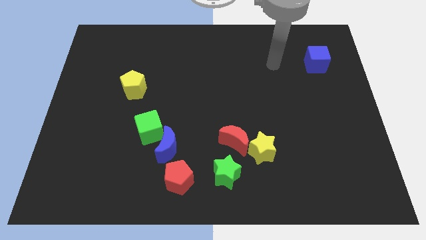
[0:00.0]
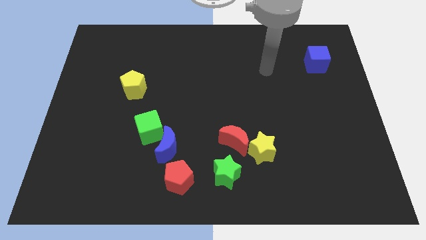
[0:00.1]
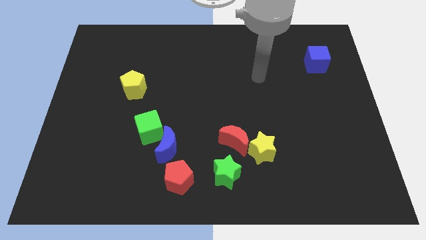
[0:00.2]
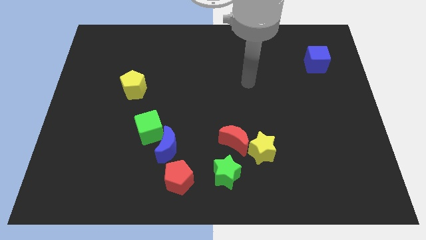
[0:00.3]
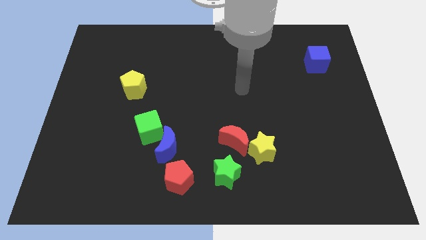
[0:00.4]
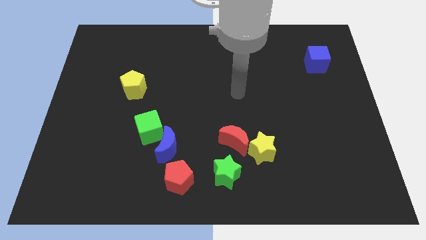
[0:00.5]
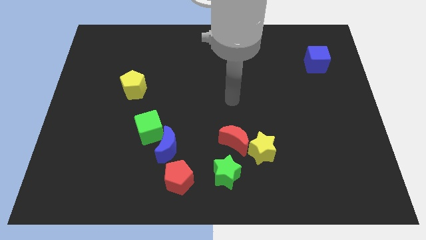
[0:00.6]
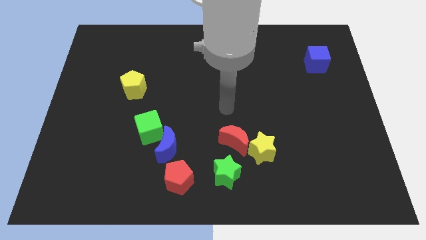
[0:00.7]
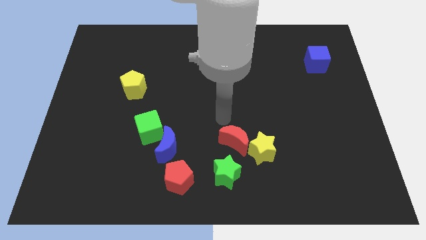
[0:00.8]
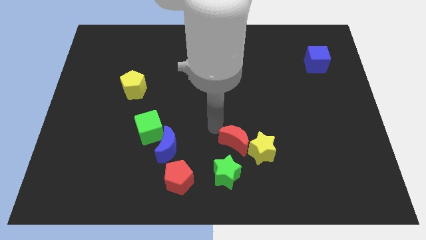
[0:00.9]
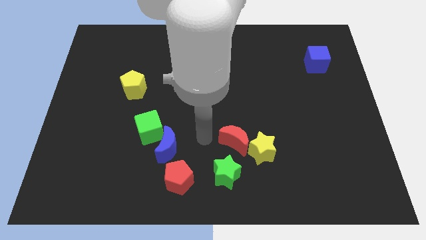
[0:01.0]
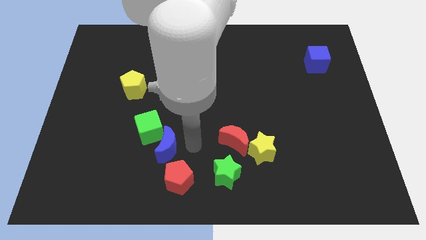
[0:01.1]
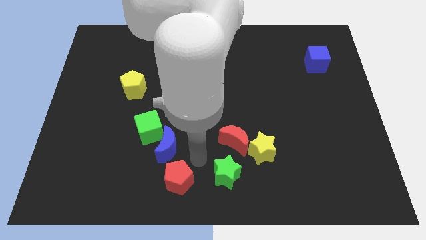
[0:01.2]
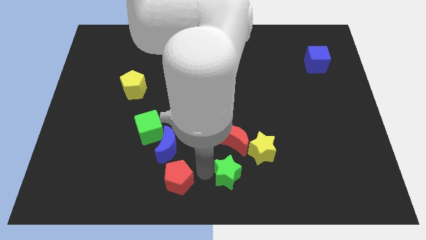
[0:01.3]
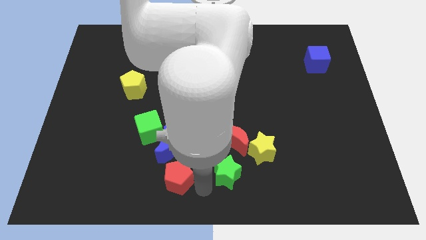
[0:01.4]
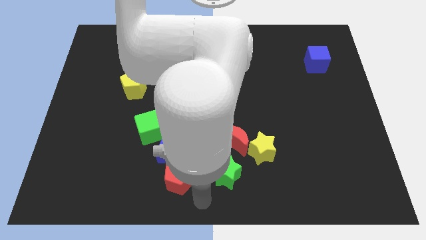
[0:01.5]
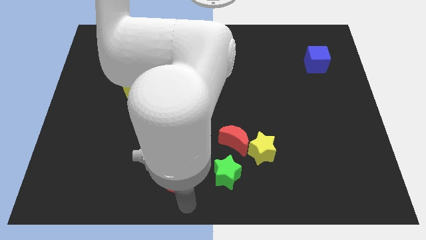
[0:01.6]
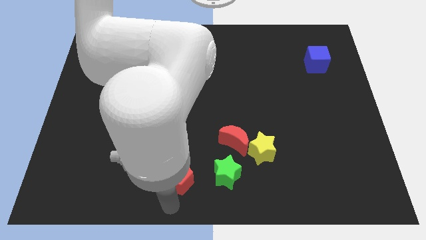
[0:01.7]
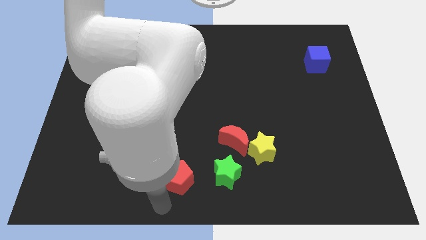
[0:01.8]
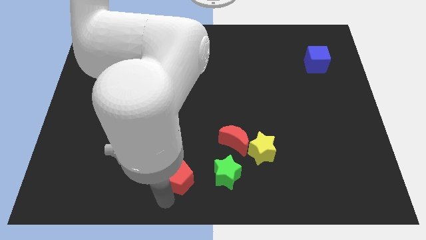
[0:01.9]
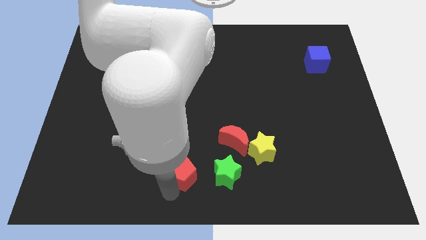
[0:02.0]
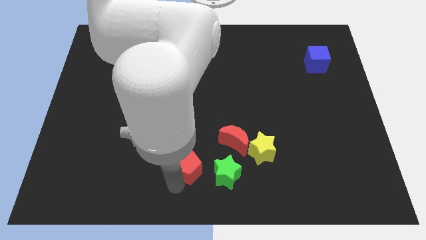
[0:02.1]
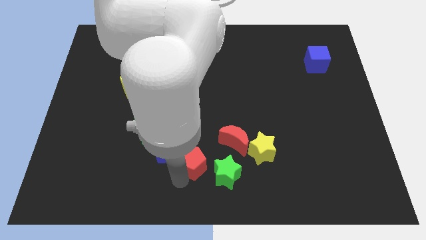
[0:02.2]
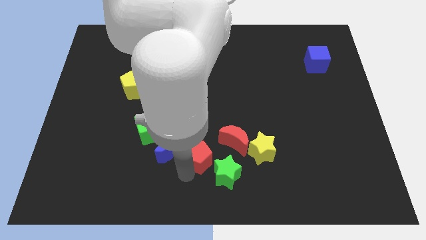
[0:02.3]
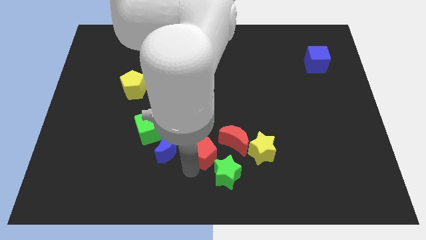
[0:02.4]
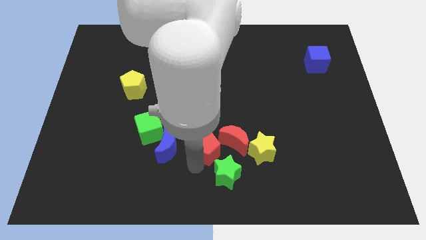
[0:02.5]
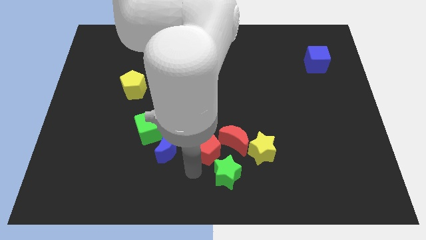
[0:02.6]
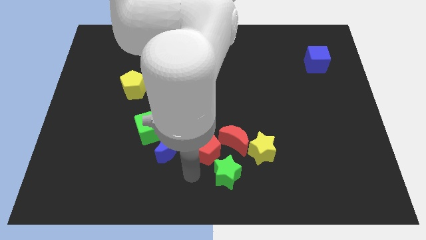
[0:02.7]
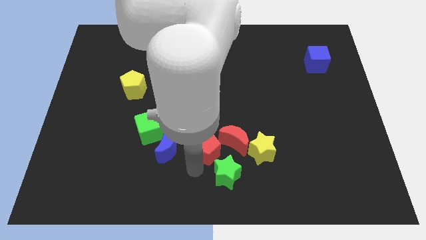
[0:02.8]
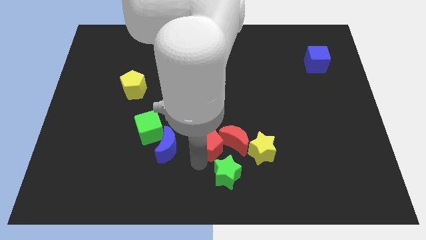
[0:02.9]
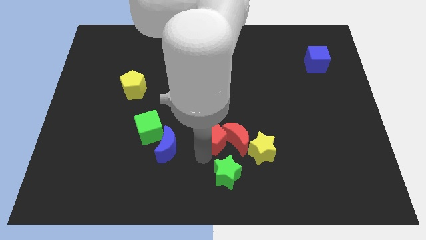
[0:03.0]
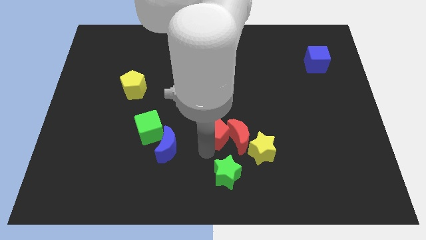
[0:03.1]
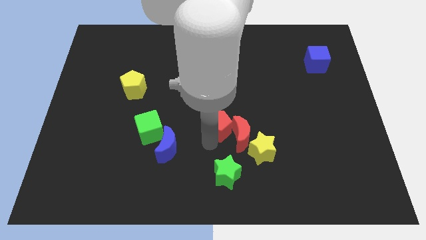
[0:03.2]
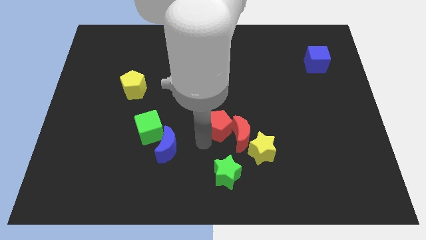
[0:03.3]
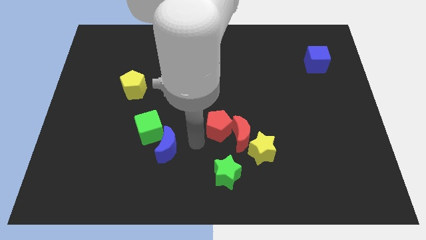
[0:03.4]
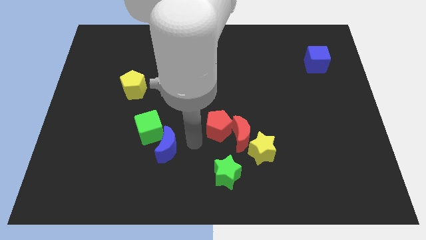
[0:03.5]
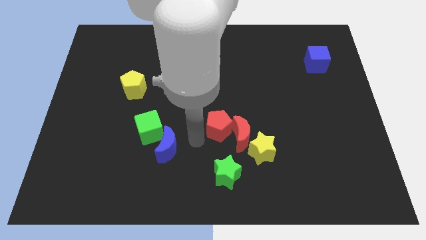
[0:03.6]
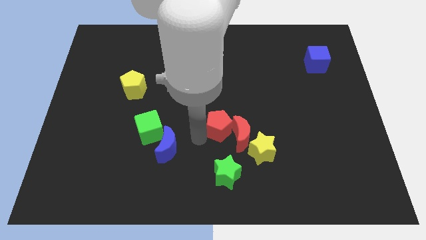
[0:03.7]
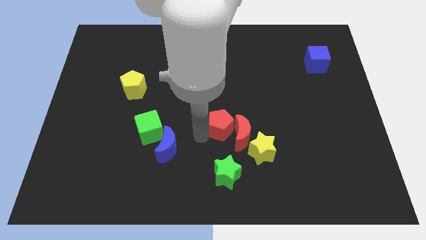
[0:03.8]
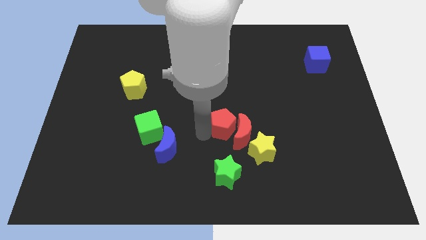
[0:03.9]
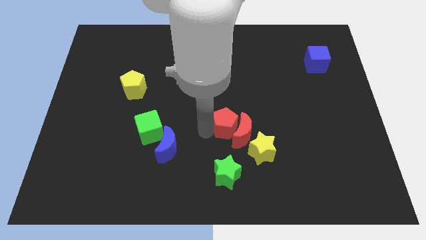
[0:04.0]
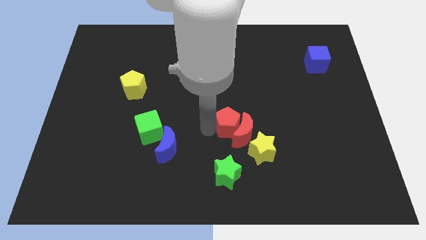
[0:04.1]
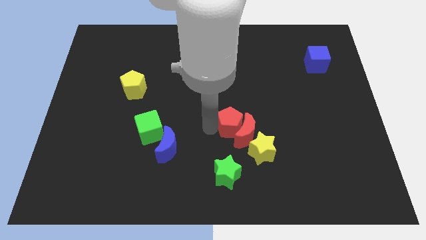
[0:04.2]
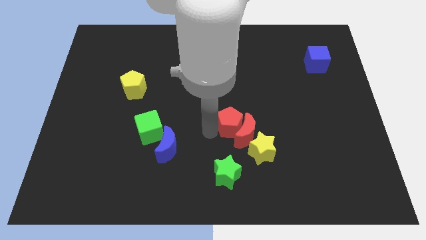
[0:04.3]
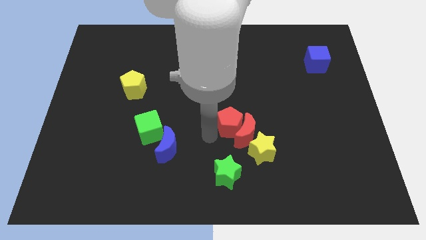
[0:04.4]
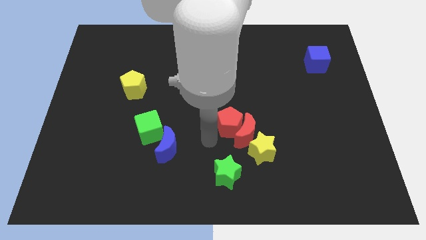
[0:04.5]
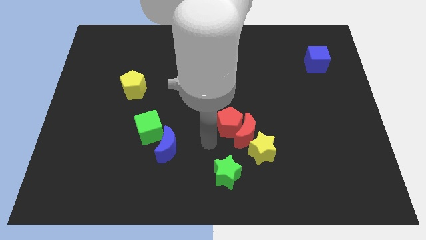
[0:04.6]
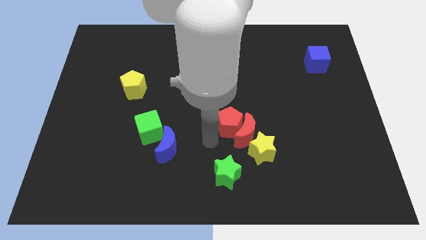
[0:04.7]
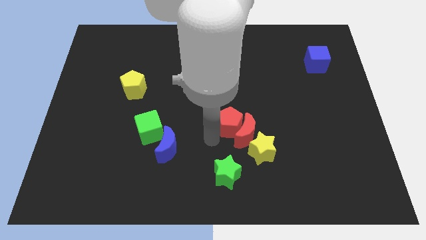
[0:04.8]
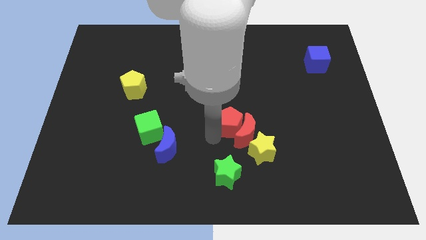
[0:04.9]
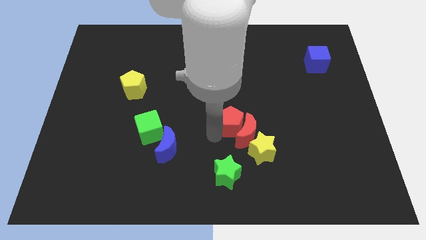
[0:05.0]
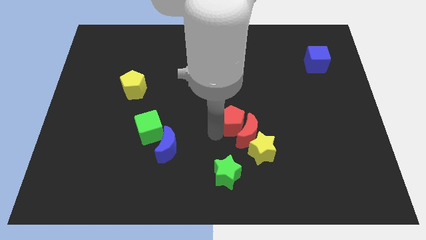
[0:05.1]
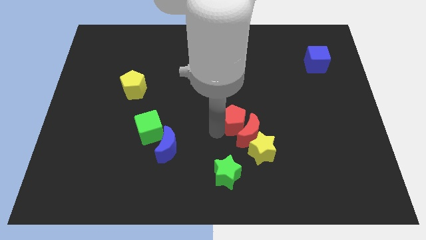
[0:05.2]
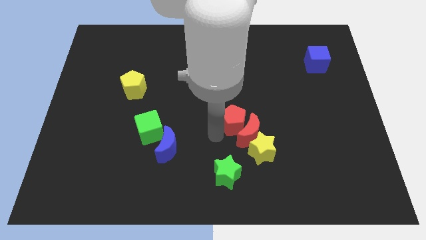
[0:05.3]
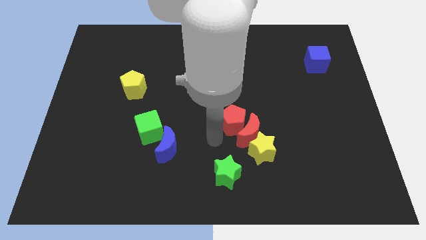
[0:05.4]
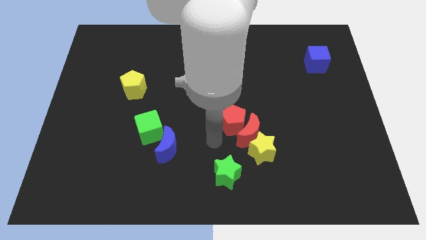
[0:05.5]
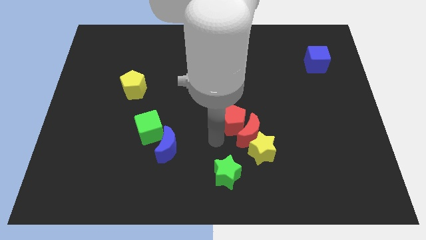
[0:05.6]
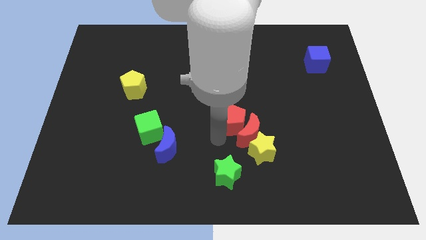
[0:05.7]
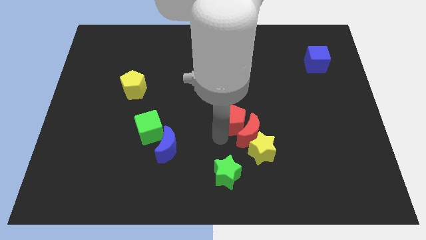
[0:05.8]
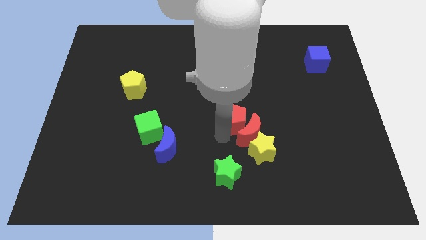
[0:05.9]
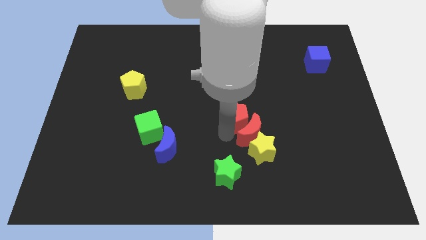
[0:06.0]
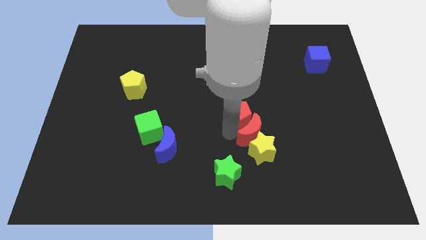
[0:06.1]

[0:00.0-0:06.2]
move the red pentagon up and then right

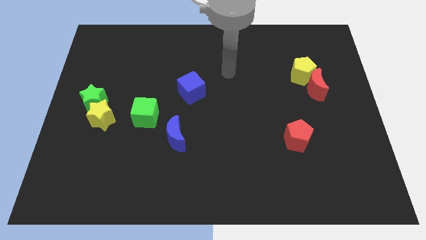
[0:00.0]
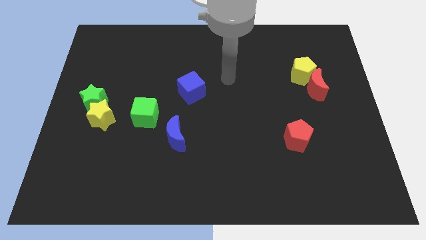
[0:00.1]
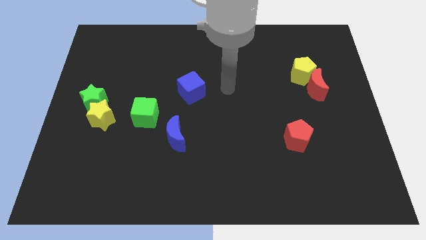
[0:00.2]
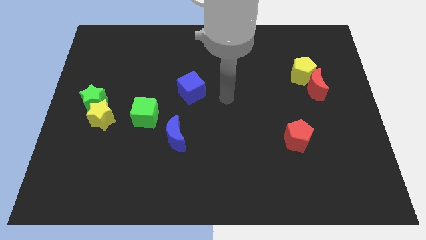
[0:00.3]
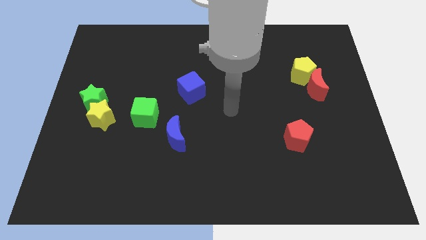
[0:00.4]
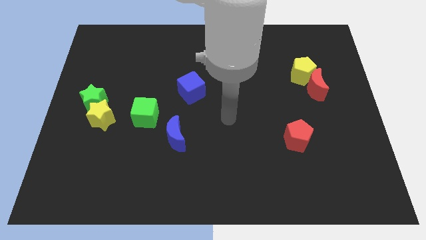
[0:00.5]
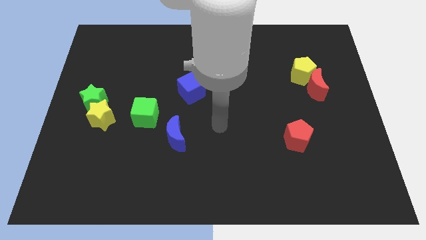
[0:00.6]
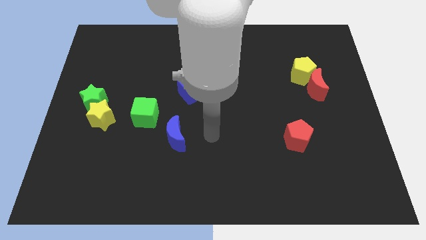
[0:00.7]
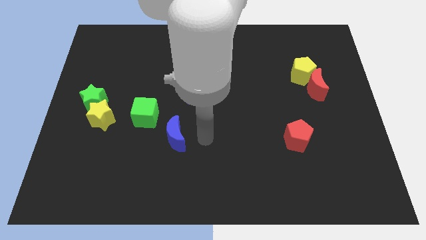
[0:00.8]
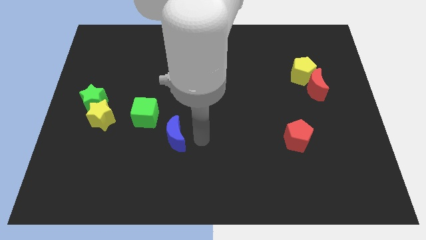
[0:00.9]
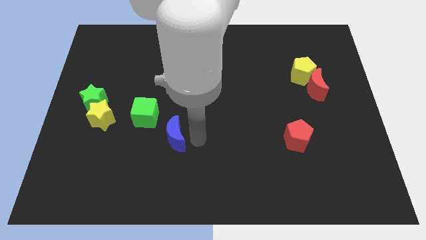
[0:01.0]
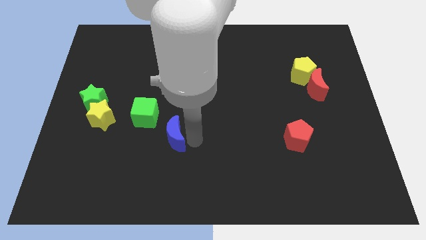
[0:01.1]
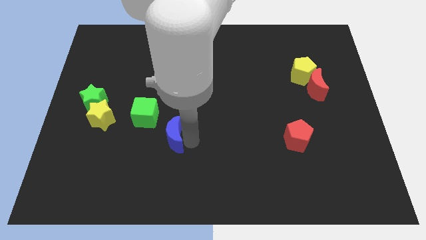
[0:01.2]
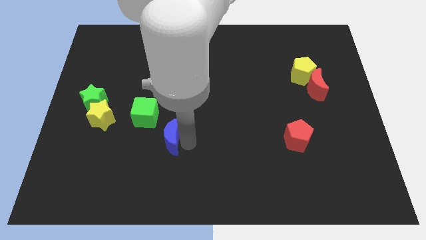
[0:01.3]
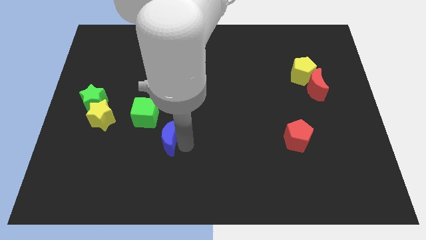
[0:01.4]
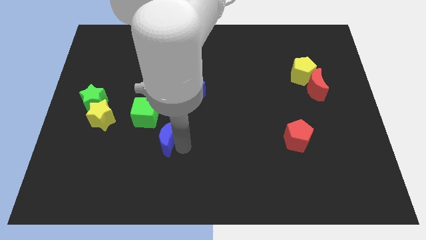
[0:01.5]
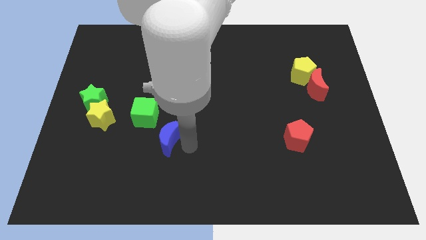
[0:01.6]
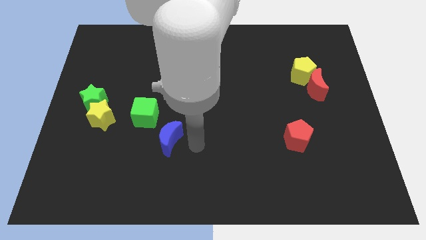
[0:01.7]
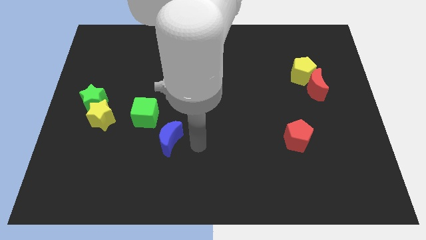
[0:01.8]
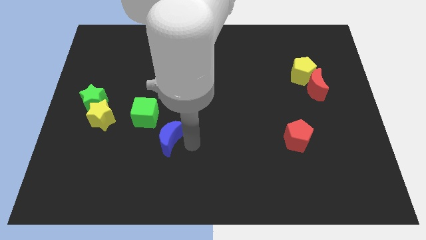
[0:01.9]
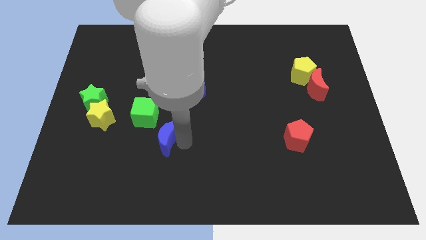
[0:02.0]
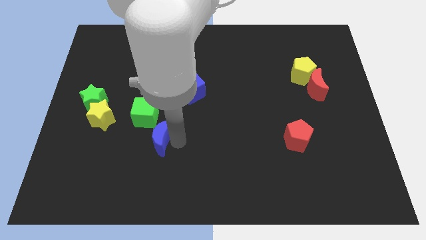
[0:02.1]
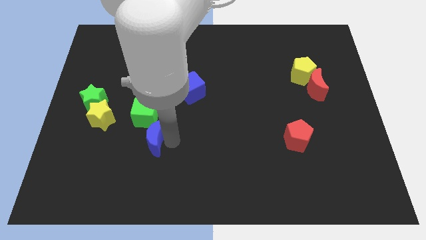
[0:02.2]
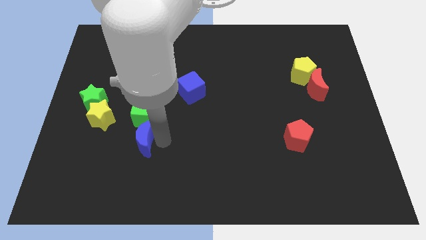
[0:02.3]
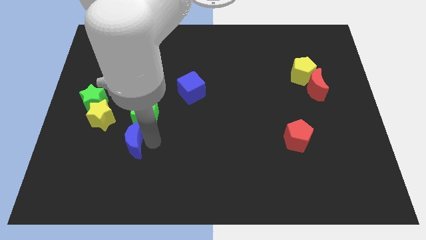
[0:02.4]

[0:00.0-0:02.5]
push the blue moon left slightly
